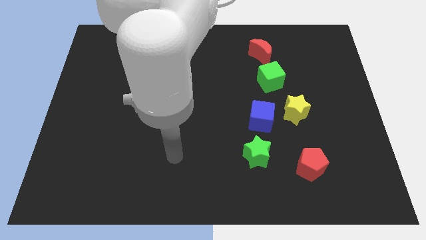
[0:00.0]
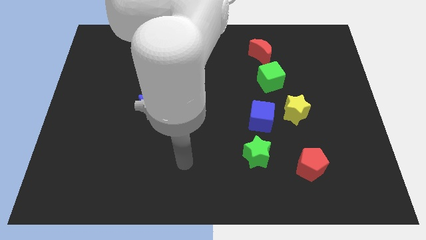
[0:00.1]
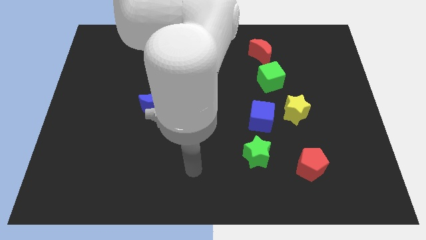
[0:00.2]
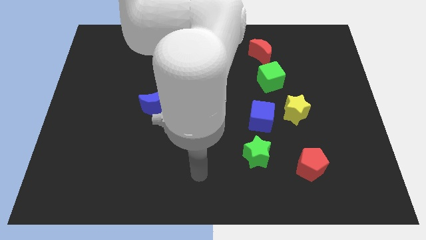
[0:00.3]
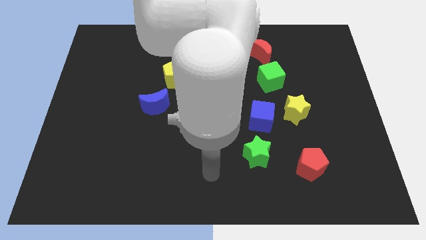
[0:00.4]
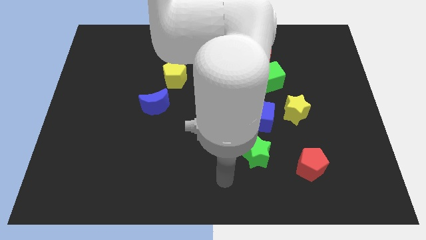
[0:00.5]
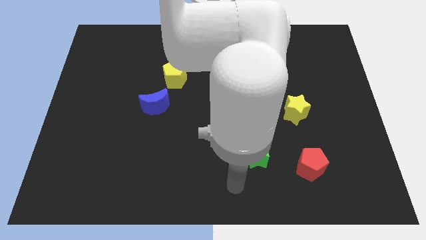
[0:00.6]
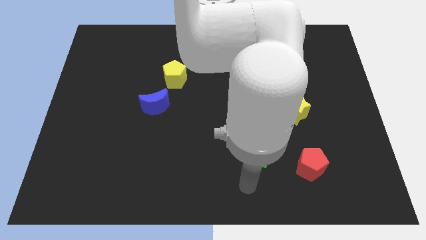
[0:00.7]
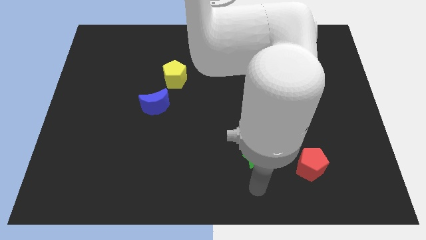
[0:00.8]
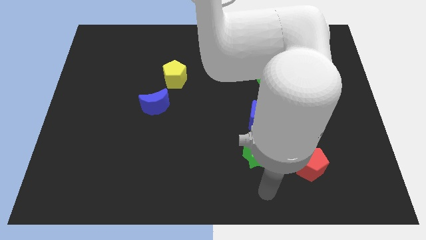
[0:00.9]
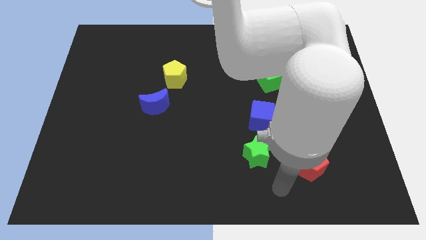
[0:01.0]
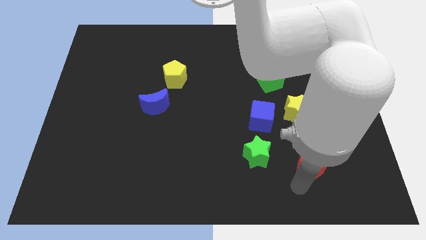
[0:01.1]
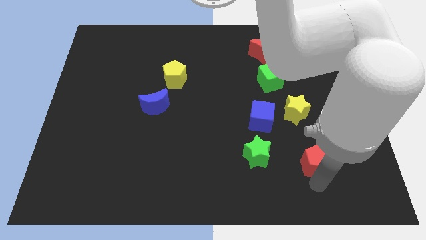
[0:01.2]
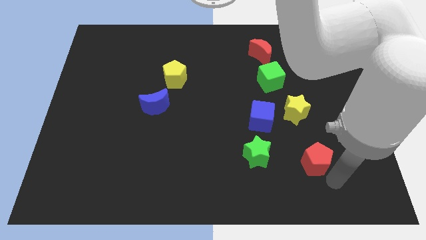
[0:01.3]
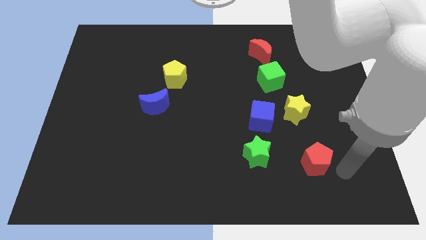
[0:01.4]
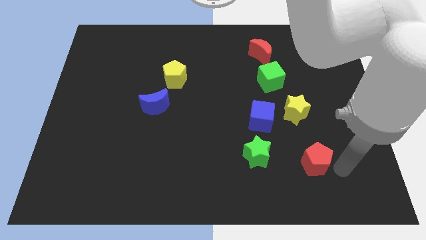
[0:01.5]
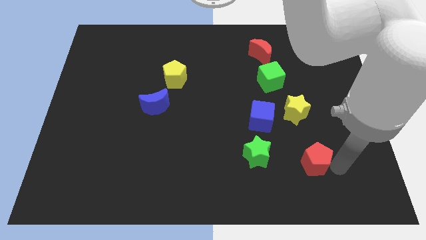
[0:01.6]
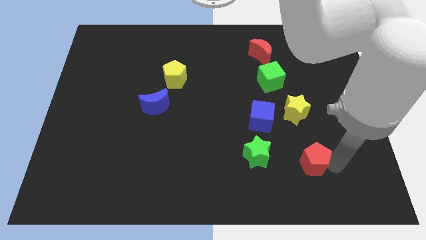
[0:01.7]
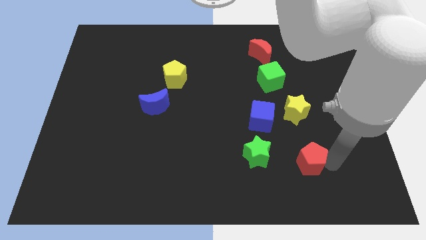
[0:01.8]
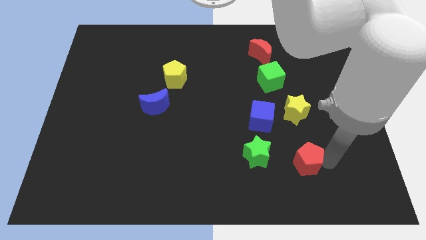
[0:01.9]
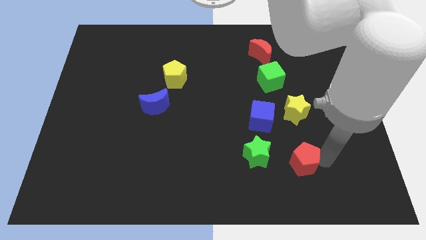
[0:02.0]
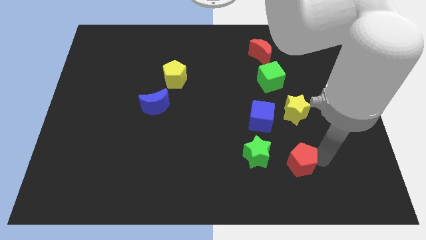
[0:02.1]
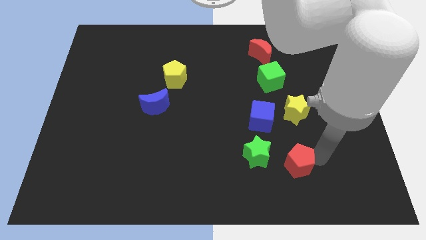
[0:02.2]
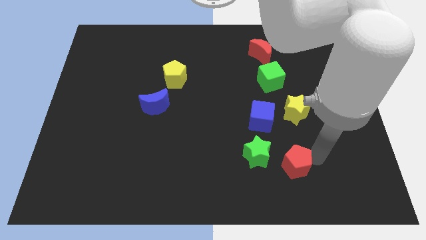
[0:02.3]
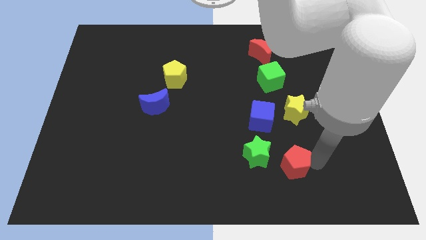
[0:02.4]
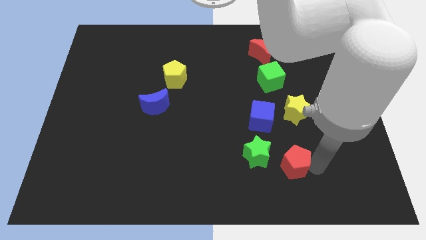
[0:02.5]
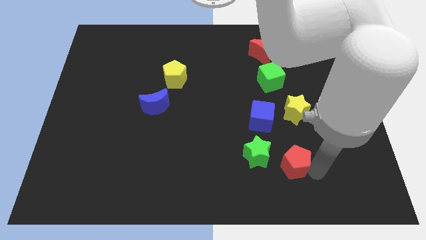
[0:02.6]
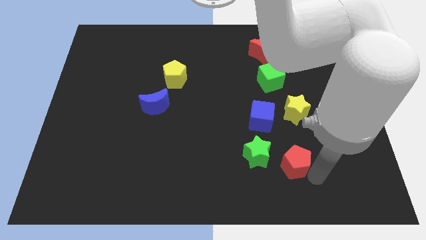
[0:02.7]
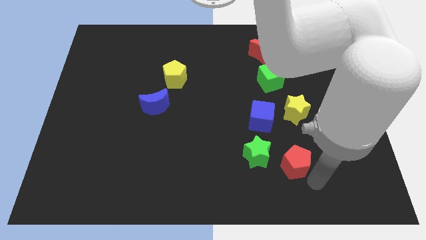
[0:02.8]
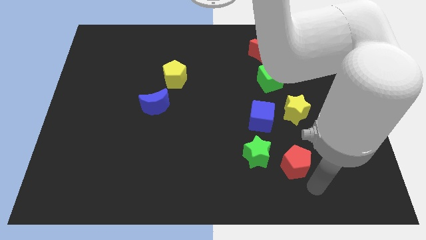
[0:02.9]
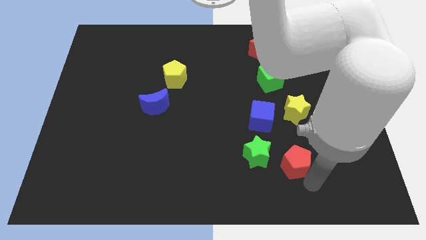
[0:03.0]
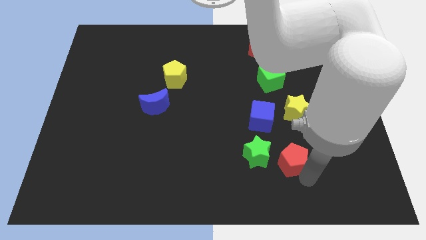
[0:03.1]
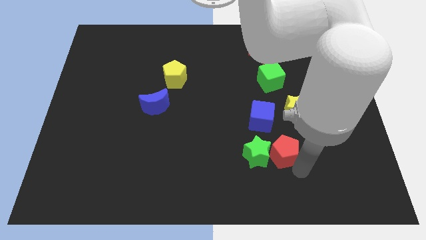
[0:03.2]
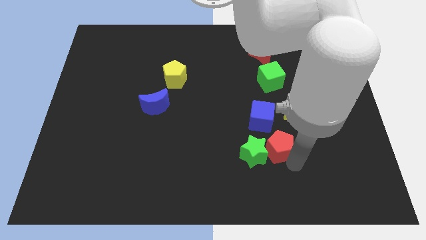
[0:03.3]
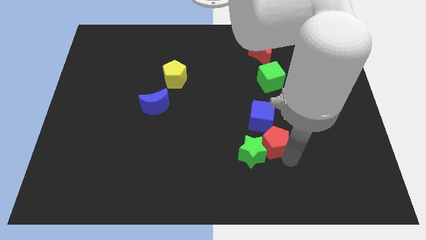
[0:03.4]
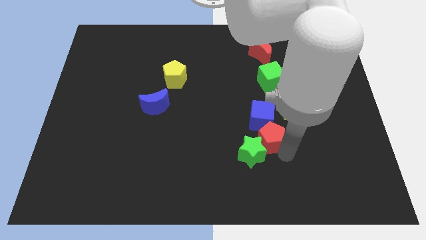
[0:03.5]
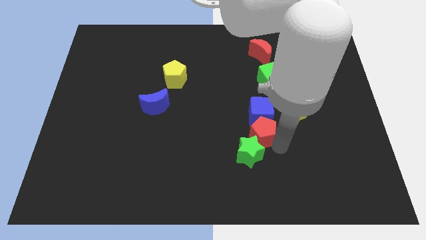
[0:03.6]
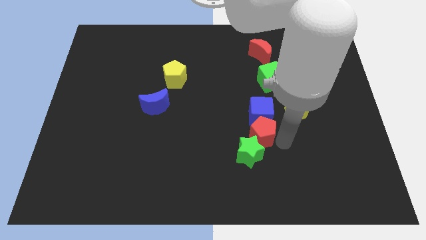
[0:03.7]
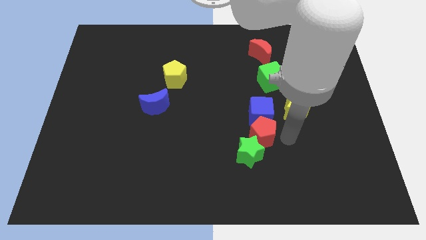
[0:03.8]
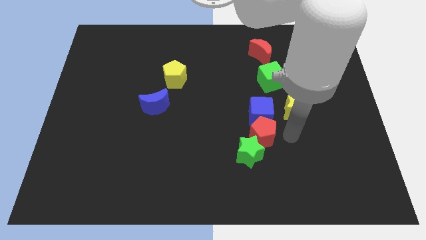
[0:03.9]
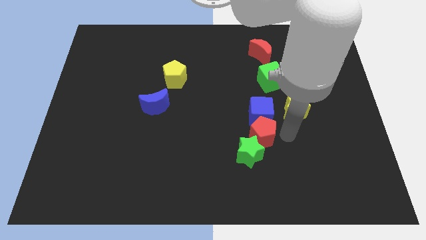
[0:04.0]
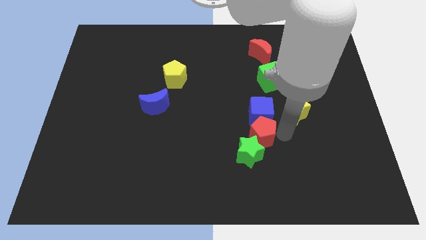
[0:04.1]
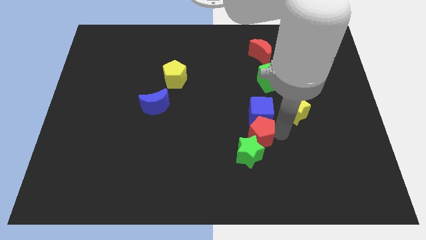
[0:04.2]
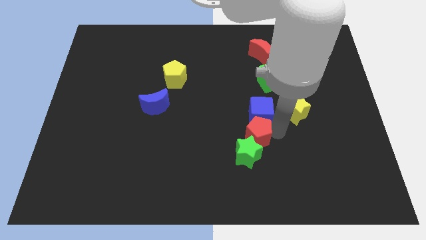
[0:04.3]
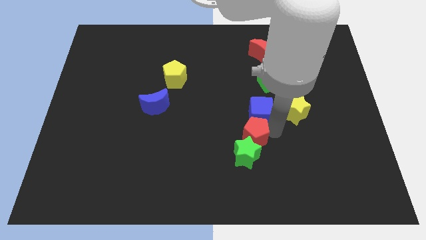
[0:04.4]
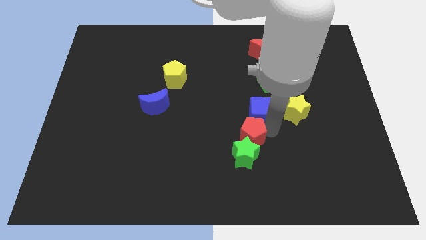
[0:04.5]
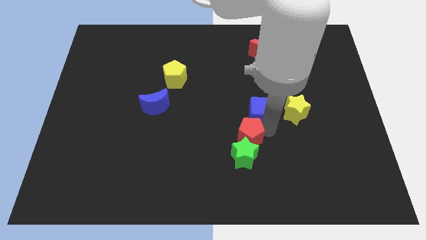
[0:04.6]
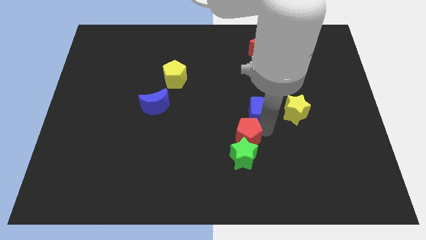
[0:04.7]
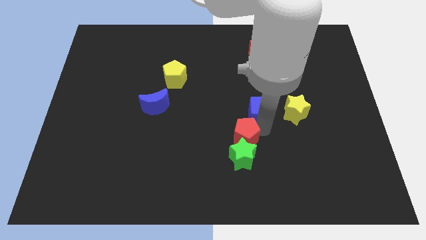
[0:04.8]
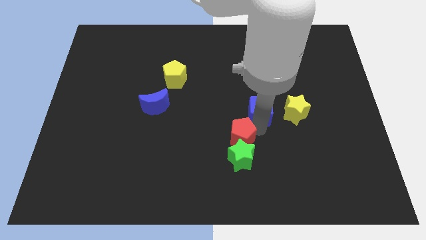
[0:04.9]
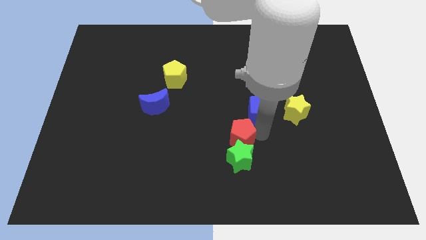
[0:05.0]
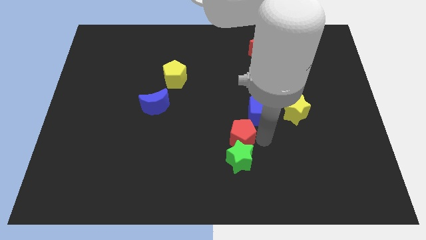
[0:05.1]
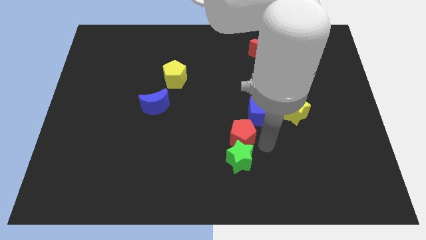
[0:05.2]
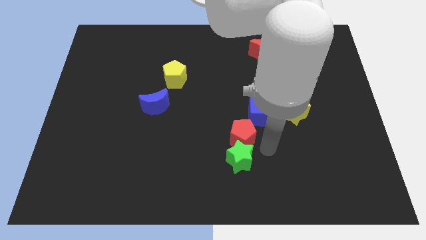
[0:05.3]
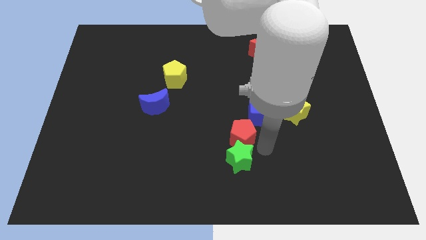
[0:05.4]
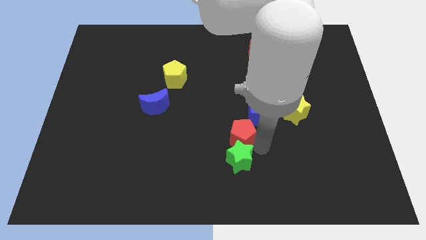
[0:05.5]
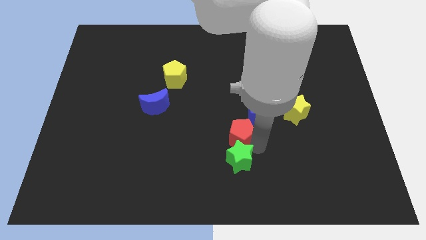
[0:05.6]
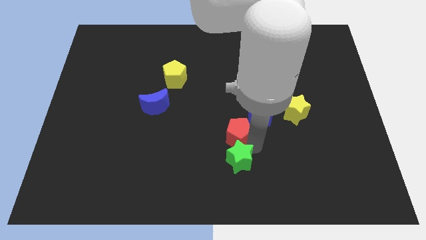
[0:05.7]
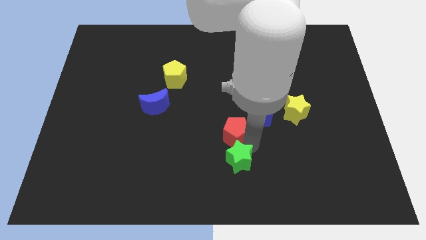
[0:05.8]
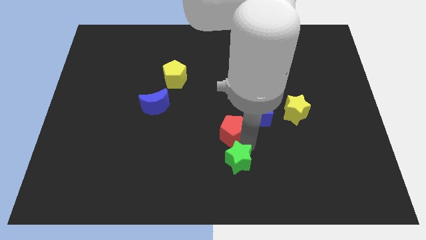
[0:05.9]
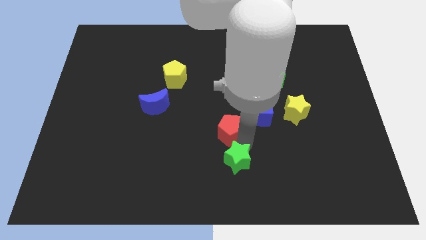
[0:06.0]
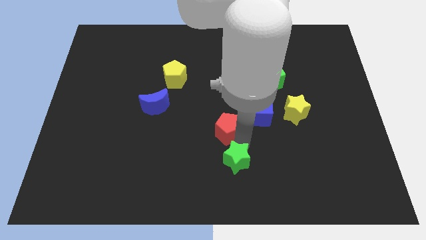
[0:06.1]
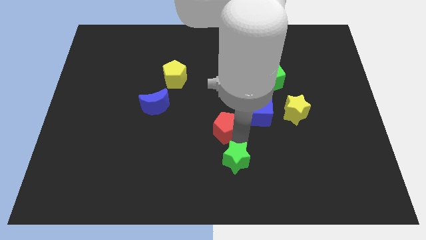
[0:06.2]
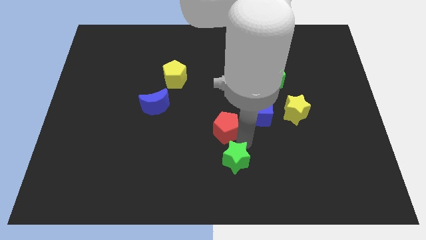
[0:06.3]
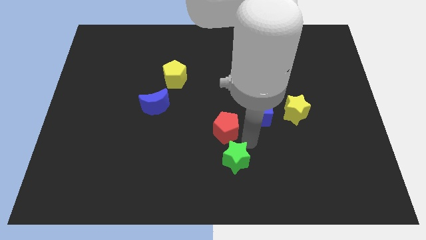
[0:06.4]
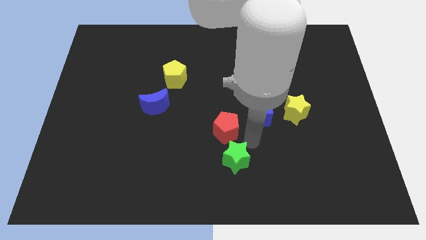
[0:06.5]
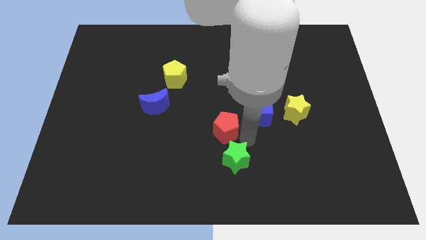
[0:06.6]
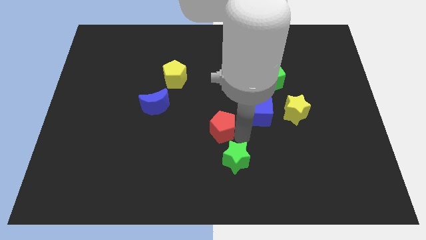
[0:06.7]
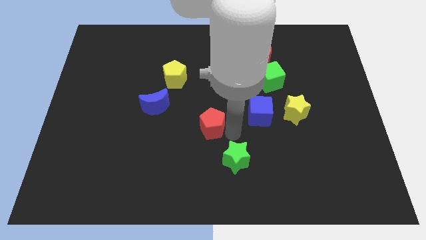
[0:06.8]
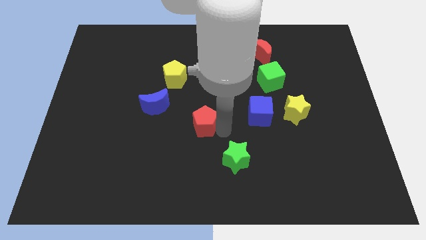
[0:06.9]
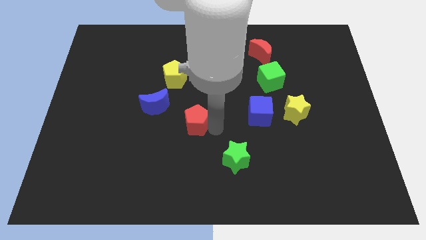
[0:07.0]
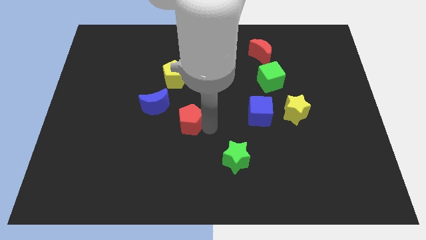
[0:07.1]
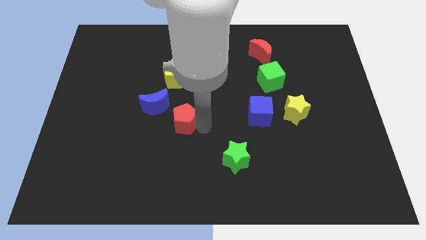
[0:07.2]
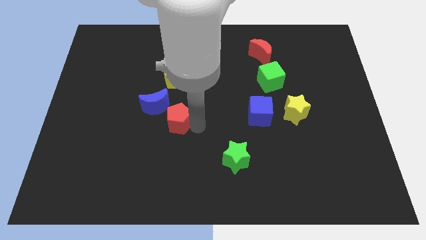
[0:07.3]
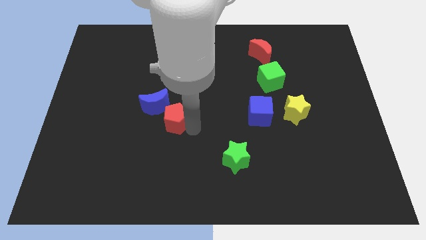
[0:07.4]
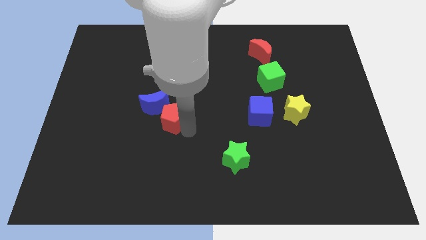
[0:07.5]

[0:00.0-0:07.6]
slide the red pentagon to the blue moon
